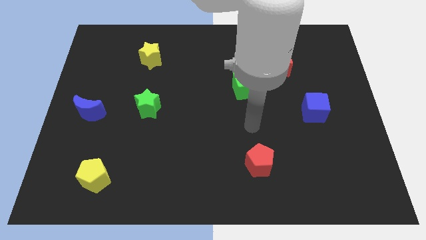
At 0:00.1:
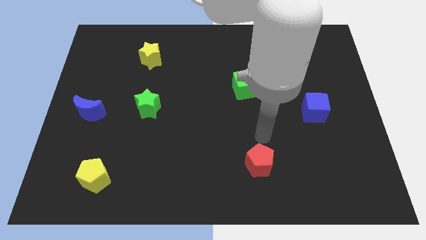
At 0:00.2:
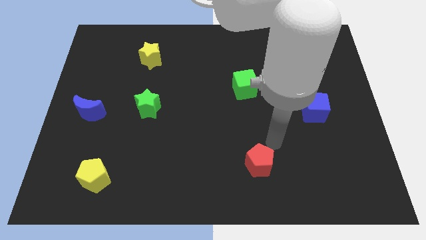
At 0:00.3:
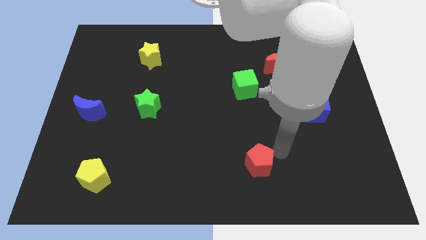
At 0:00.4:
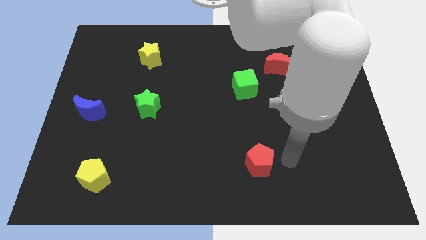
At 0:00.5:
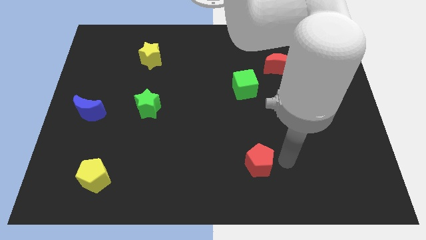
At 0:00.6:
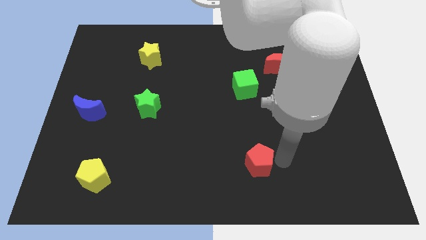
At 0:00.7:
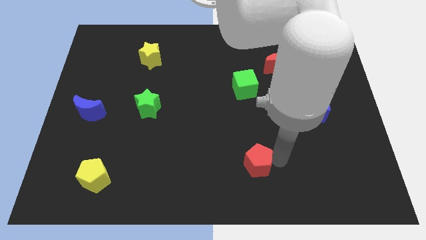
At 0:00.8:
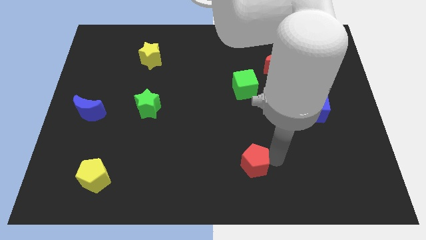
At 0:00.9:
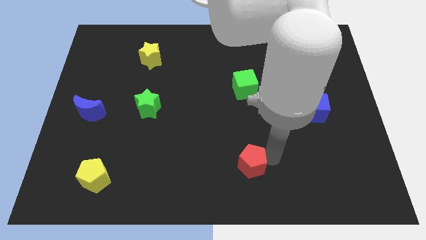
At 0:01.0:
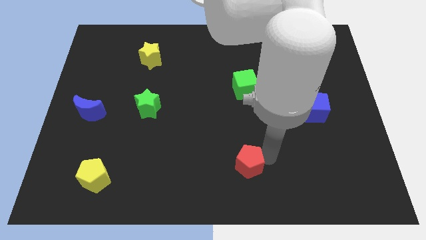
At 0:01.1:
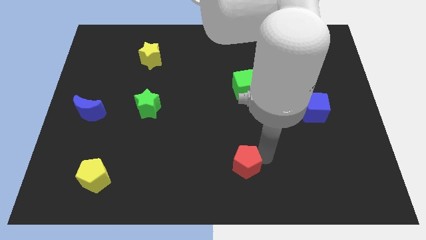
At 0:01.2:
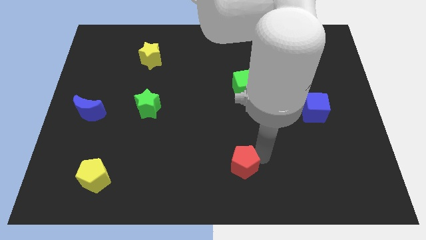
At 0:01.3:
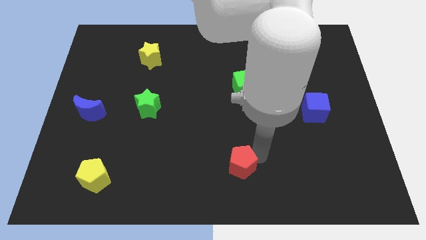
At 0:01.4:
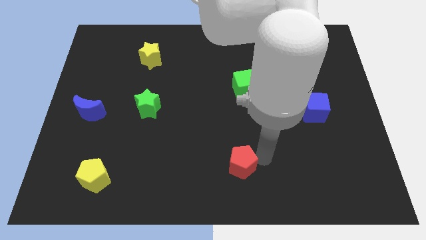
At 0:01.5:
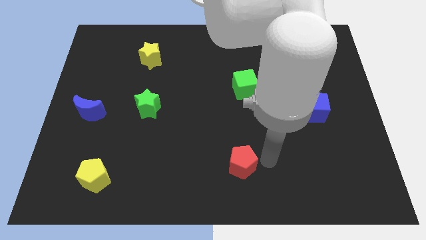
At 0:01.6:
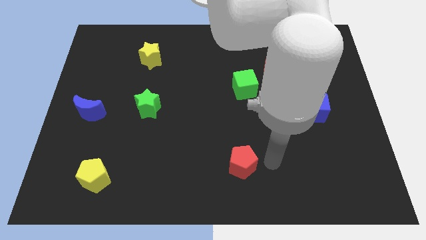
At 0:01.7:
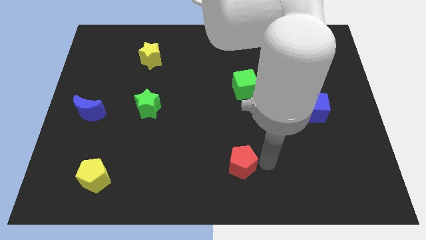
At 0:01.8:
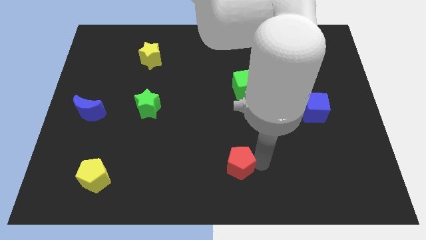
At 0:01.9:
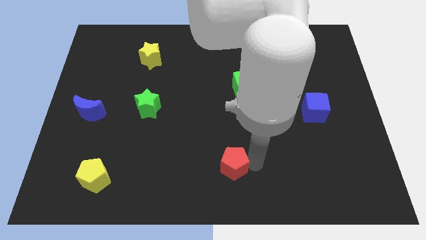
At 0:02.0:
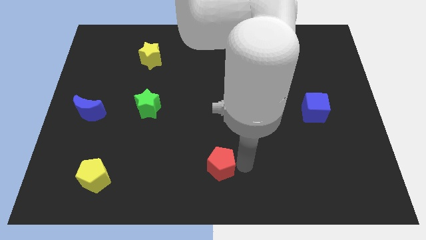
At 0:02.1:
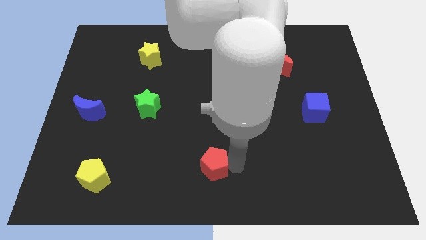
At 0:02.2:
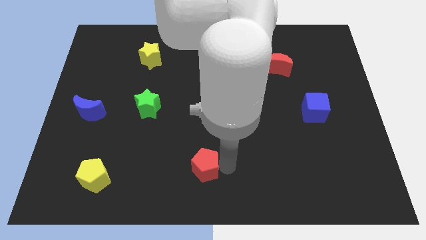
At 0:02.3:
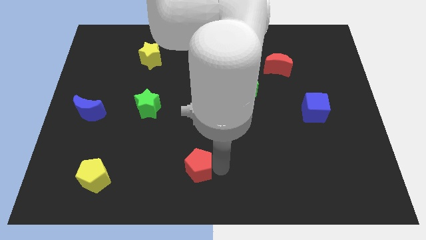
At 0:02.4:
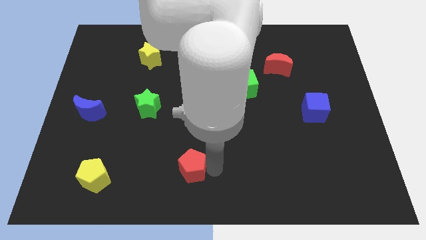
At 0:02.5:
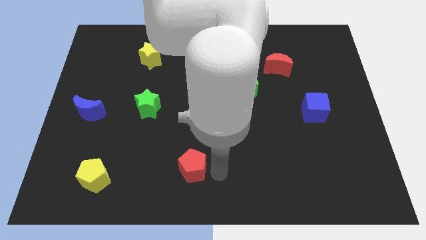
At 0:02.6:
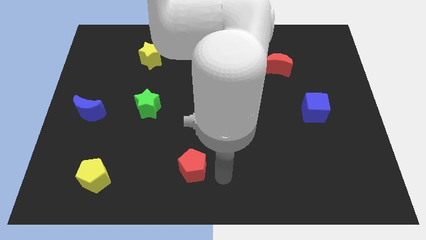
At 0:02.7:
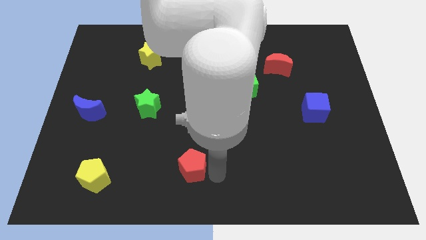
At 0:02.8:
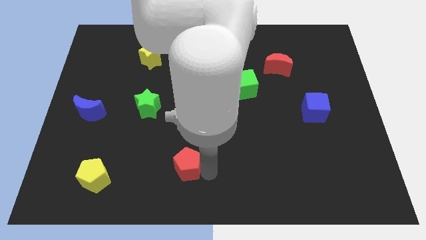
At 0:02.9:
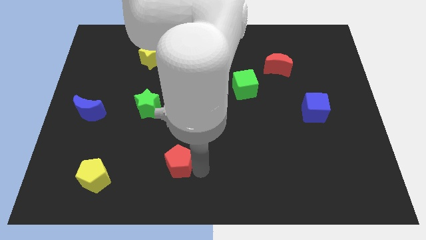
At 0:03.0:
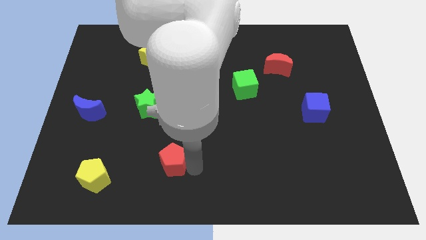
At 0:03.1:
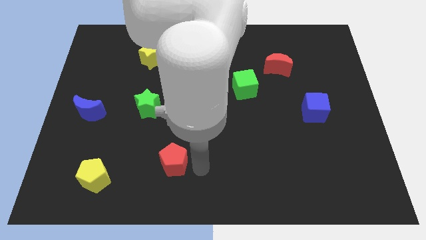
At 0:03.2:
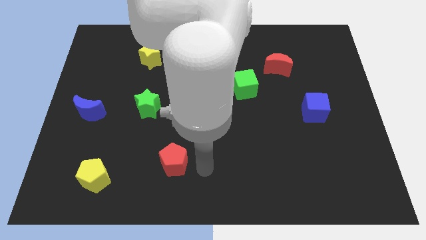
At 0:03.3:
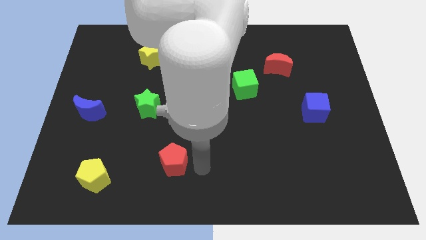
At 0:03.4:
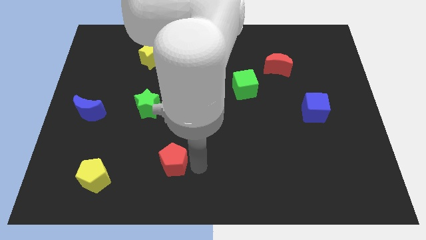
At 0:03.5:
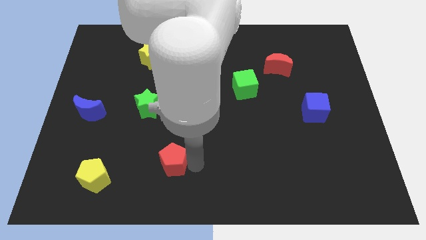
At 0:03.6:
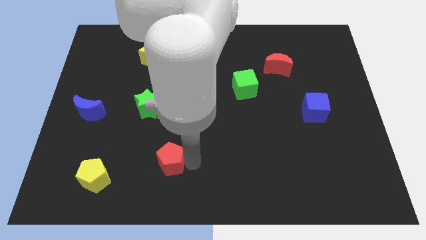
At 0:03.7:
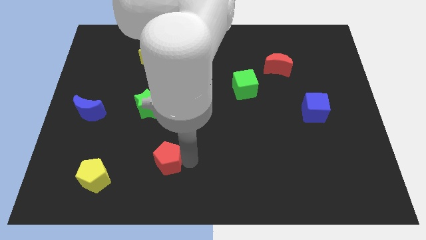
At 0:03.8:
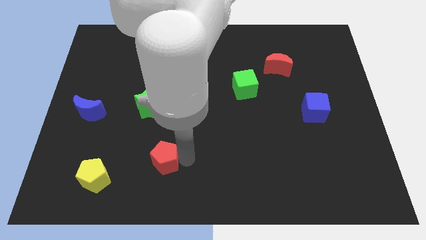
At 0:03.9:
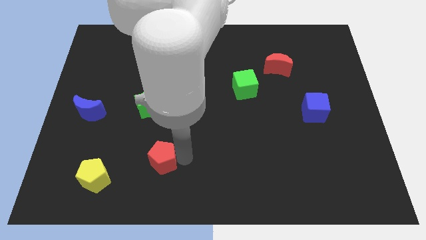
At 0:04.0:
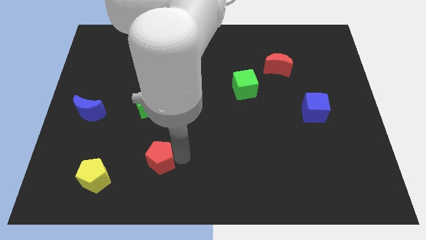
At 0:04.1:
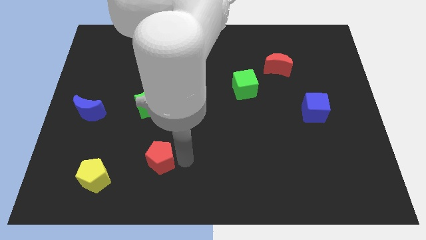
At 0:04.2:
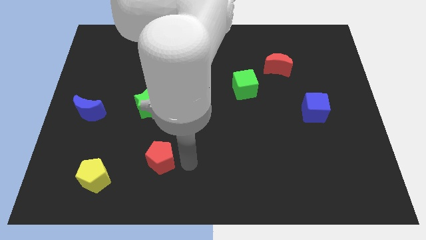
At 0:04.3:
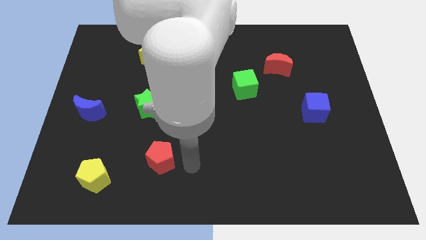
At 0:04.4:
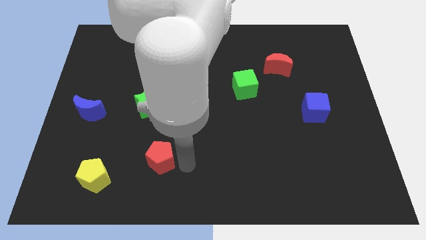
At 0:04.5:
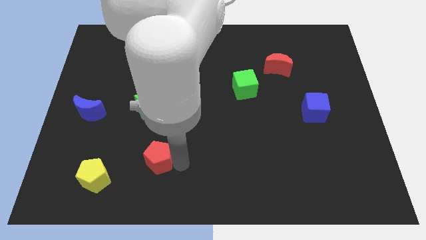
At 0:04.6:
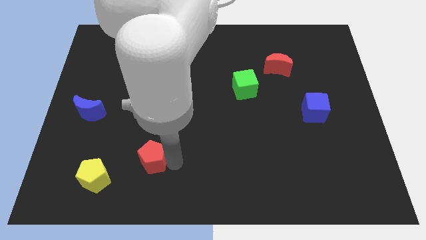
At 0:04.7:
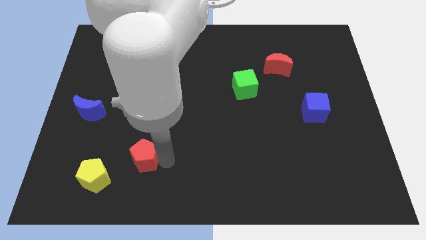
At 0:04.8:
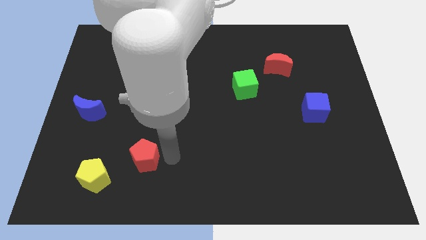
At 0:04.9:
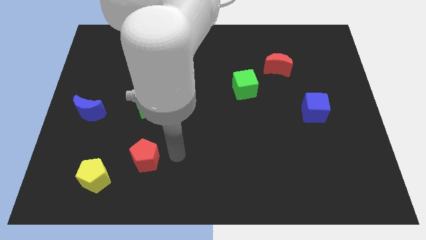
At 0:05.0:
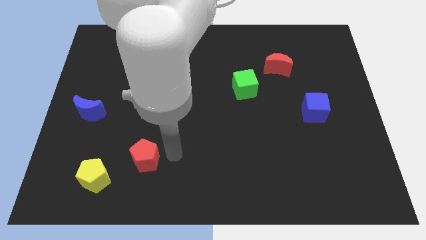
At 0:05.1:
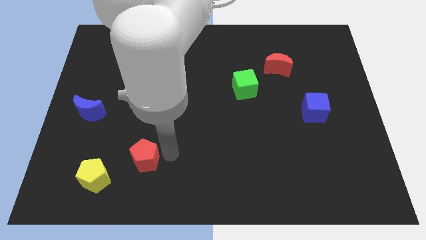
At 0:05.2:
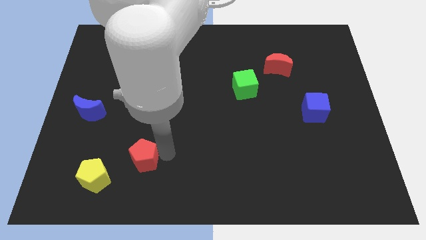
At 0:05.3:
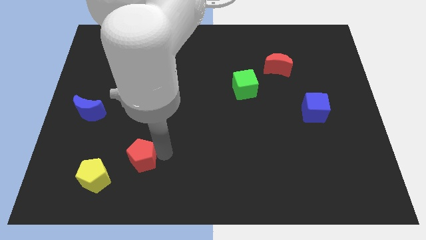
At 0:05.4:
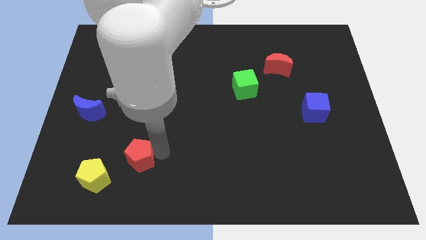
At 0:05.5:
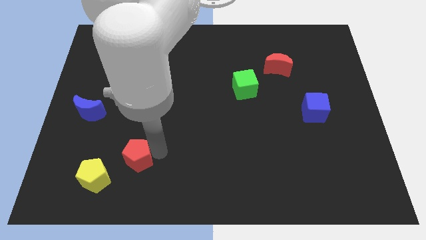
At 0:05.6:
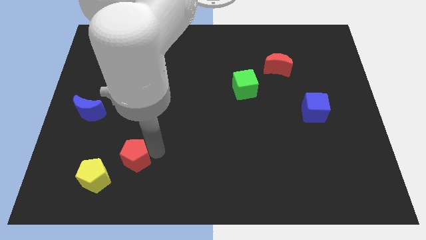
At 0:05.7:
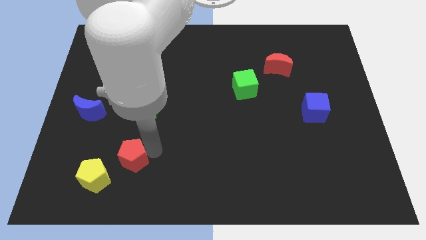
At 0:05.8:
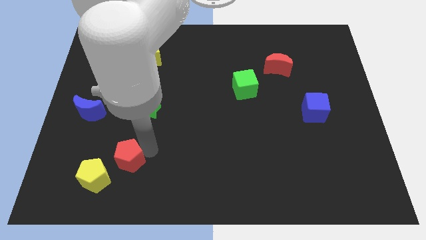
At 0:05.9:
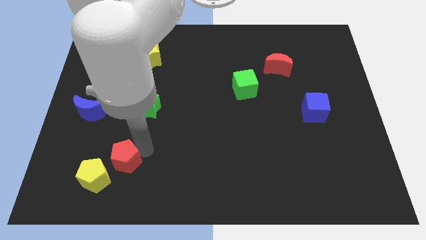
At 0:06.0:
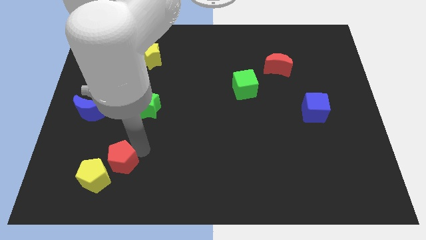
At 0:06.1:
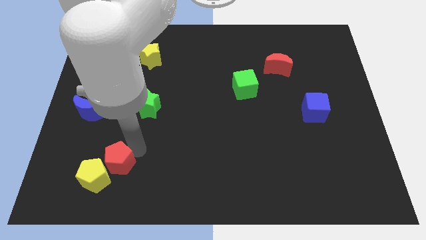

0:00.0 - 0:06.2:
slide the red pentagon towards the yellow pentagon

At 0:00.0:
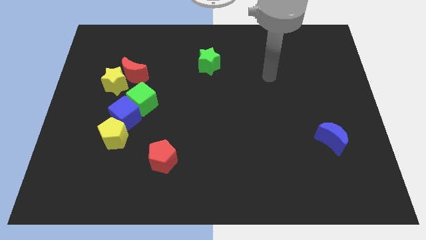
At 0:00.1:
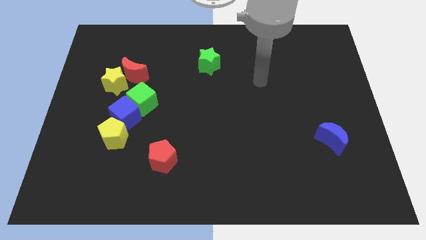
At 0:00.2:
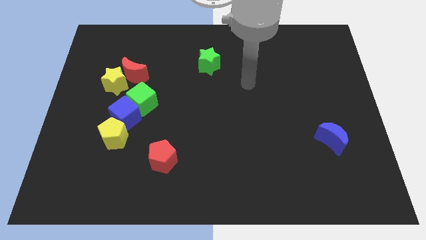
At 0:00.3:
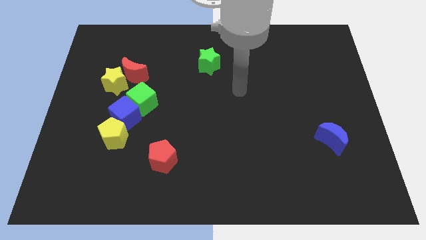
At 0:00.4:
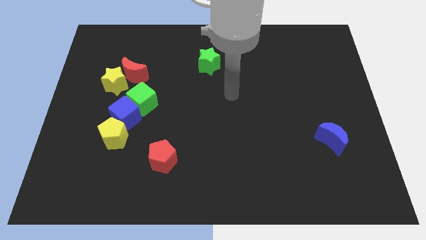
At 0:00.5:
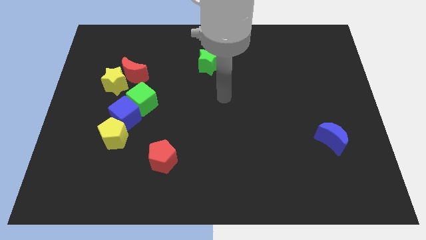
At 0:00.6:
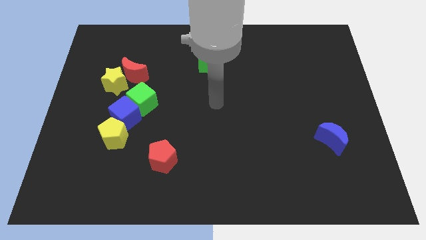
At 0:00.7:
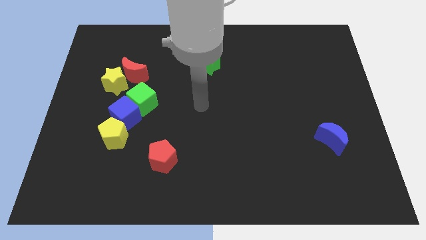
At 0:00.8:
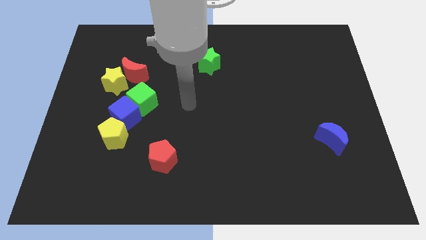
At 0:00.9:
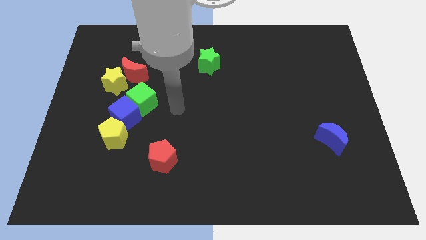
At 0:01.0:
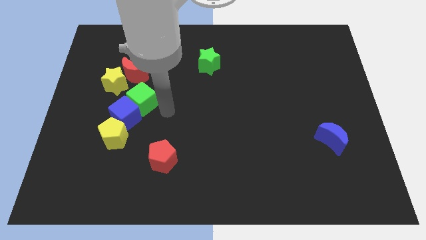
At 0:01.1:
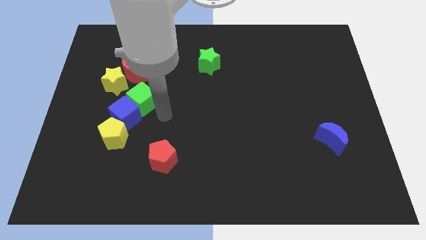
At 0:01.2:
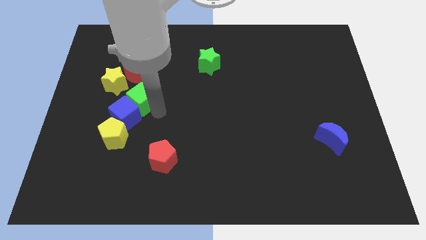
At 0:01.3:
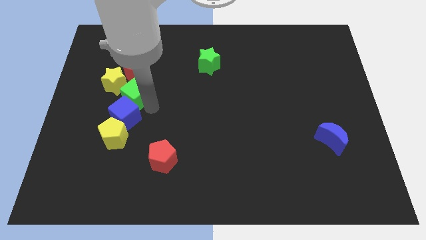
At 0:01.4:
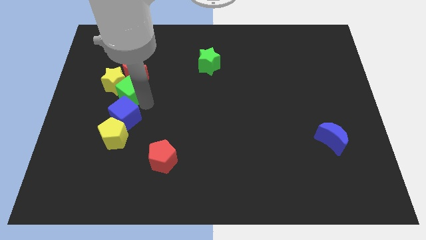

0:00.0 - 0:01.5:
put the green cube close to the yellow star
